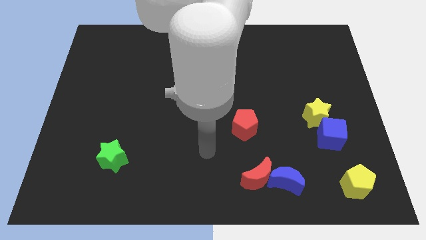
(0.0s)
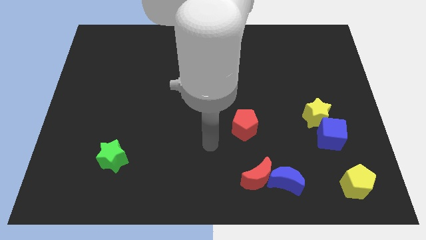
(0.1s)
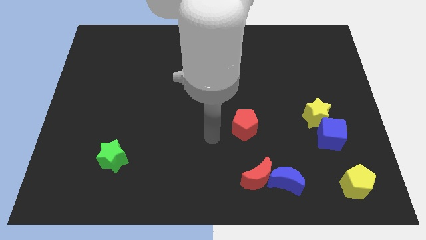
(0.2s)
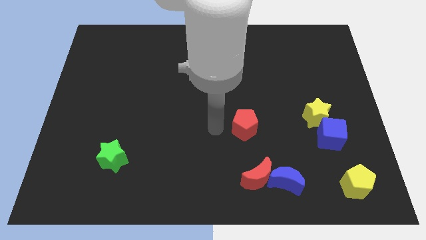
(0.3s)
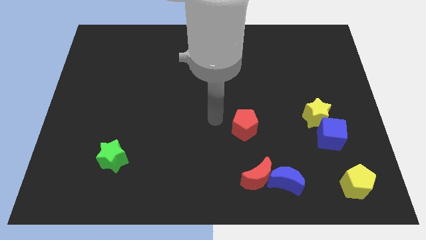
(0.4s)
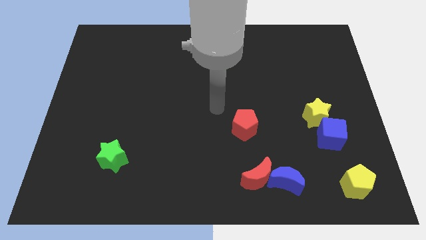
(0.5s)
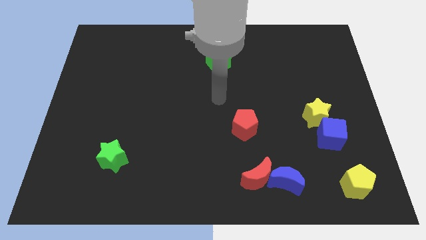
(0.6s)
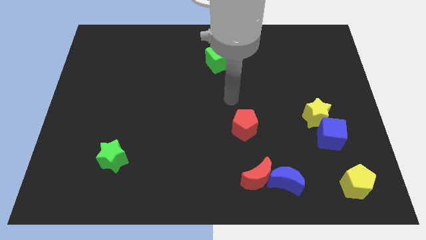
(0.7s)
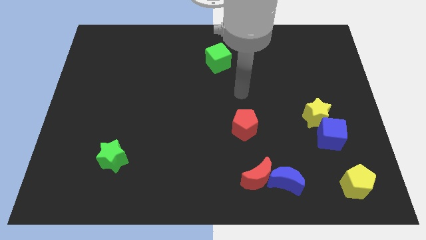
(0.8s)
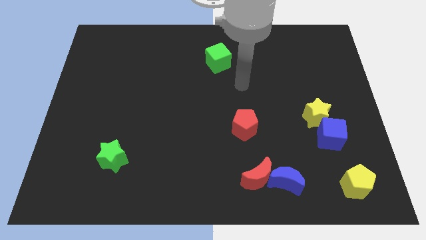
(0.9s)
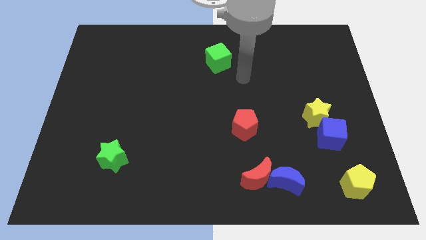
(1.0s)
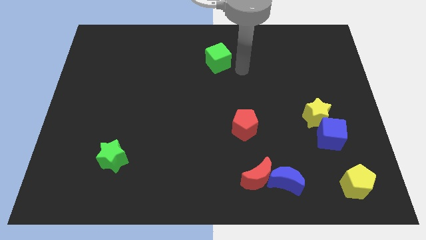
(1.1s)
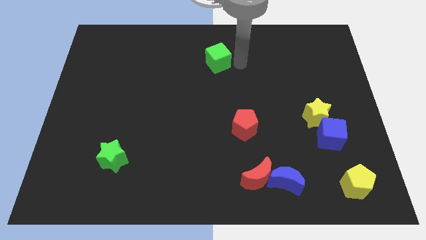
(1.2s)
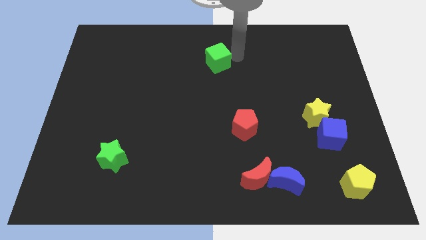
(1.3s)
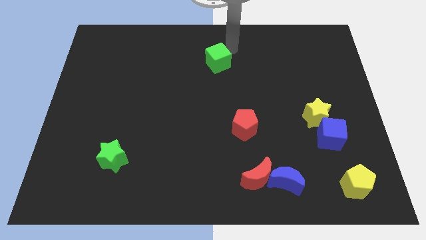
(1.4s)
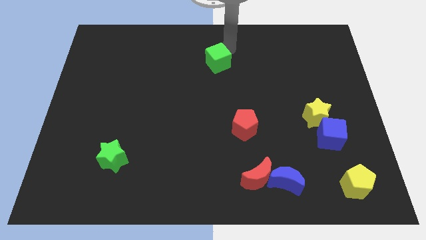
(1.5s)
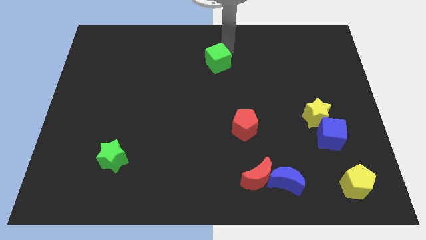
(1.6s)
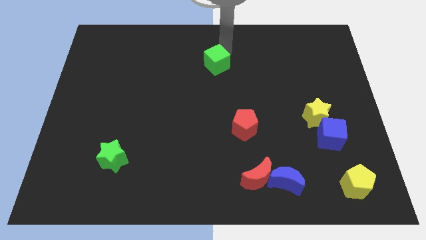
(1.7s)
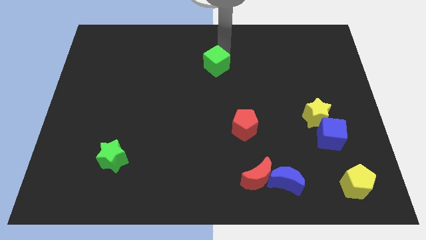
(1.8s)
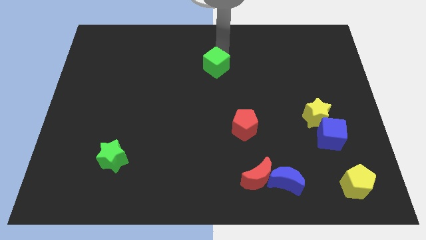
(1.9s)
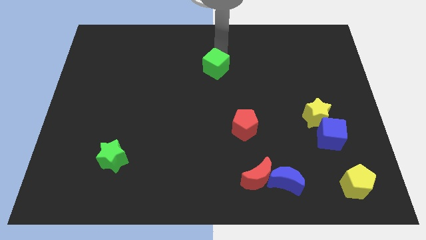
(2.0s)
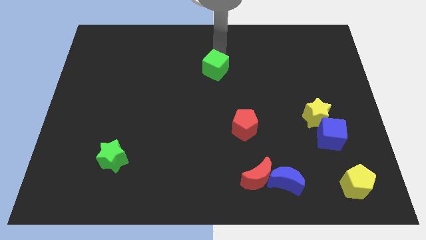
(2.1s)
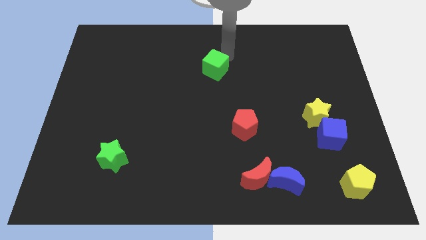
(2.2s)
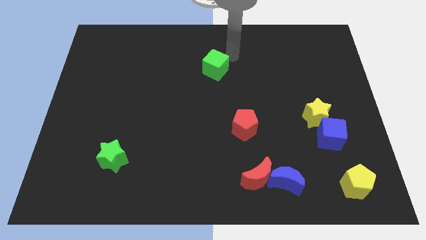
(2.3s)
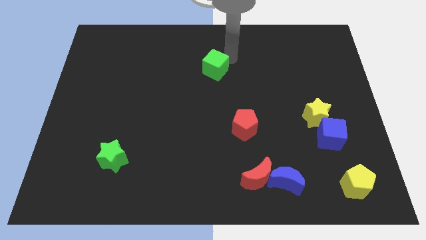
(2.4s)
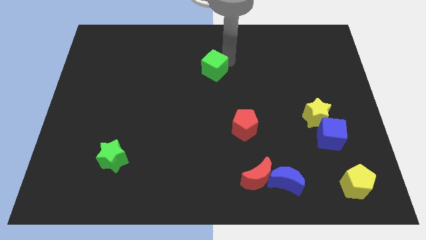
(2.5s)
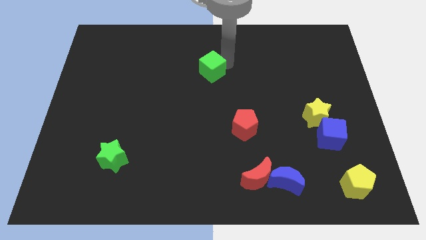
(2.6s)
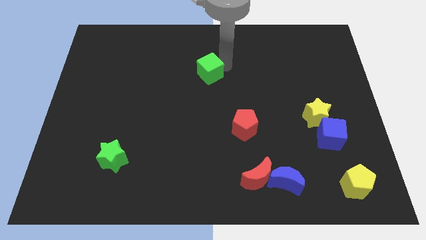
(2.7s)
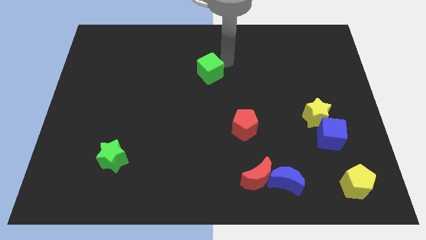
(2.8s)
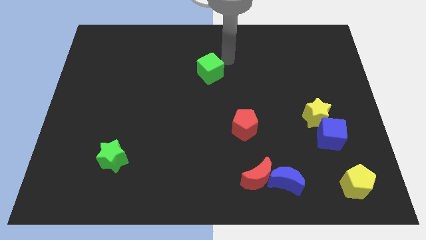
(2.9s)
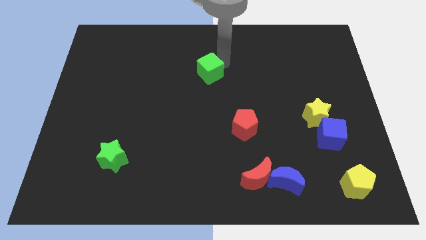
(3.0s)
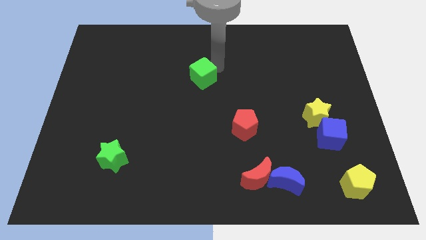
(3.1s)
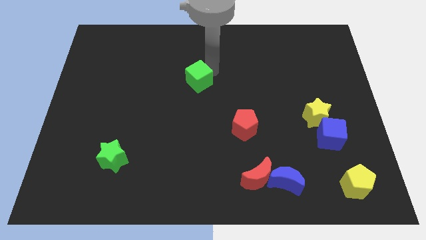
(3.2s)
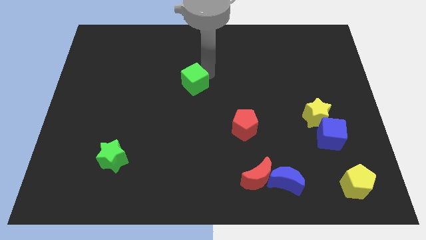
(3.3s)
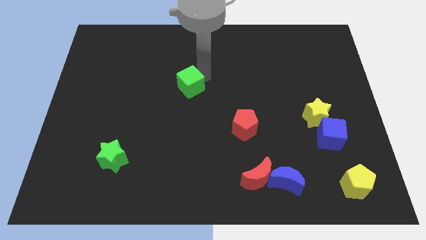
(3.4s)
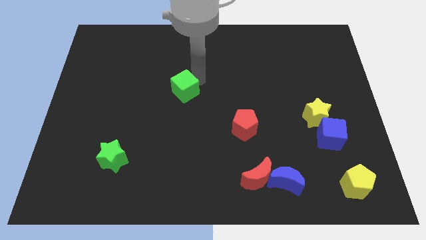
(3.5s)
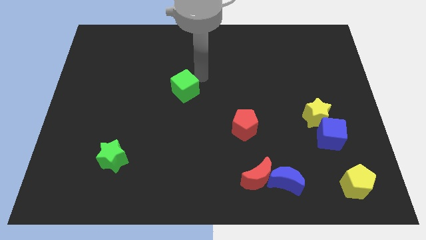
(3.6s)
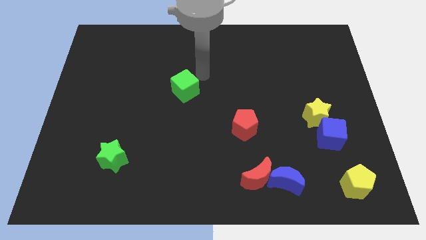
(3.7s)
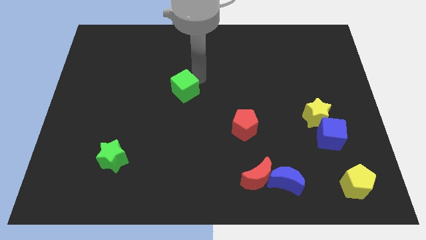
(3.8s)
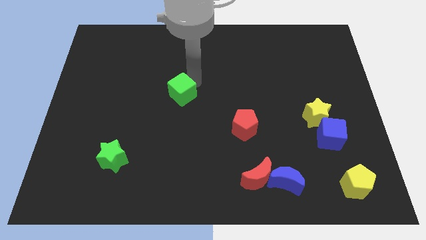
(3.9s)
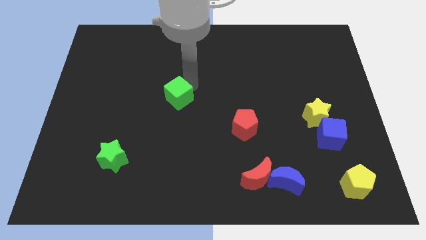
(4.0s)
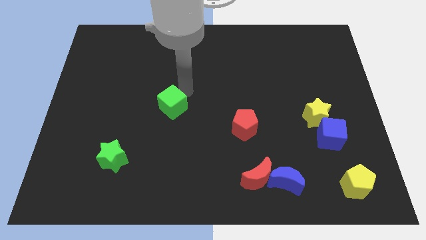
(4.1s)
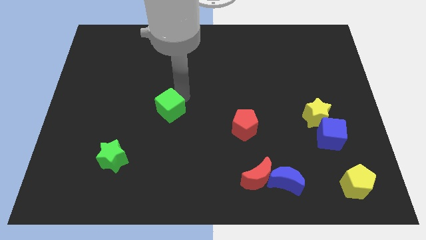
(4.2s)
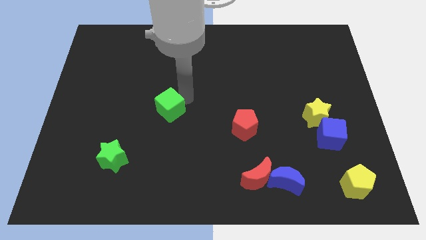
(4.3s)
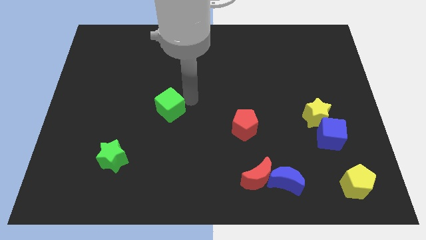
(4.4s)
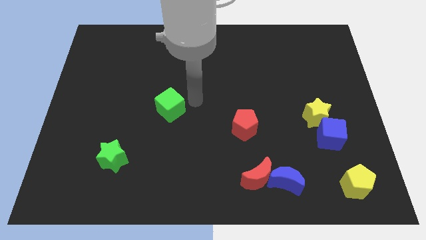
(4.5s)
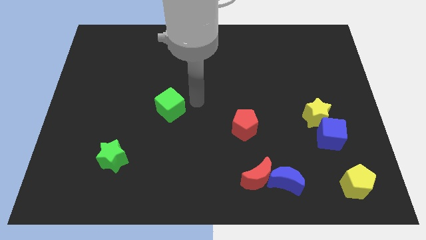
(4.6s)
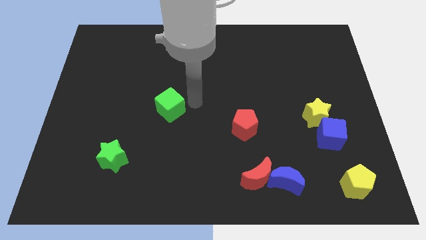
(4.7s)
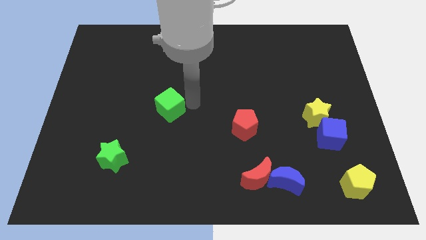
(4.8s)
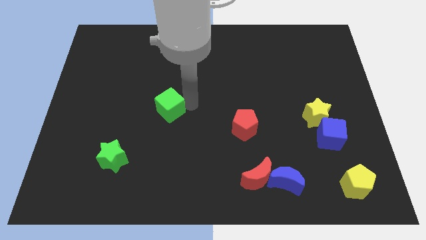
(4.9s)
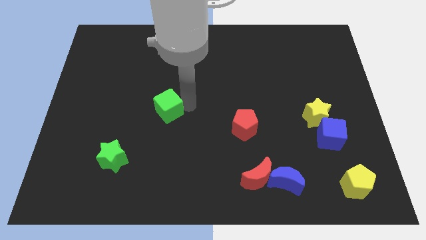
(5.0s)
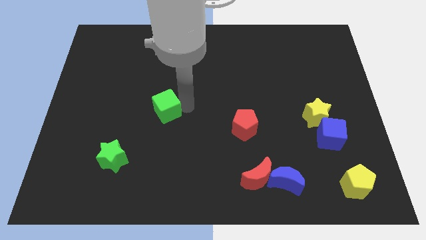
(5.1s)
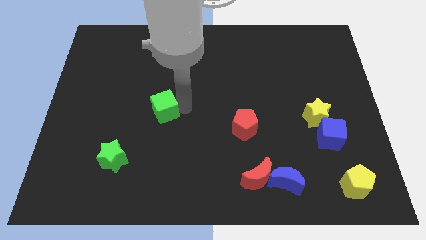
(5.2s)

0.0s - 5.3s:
move the green cube down and left

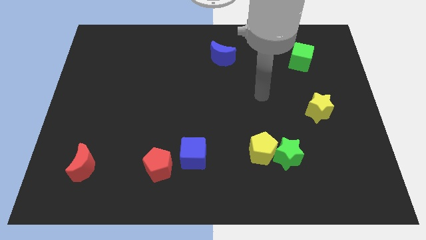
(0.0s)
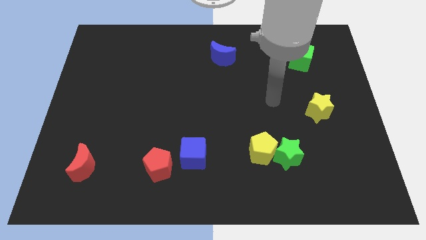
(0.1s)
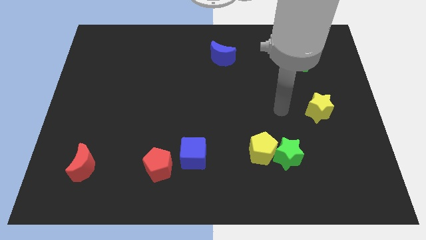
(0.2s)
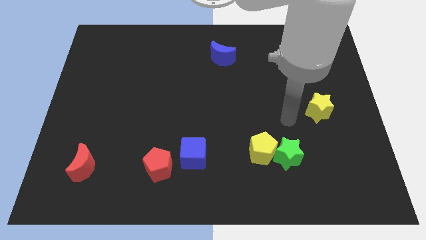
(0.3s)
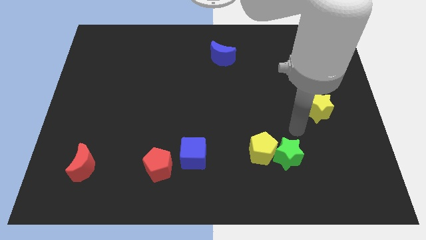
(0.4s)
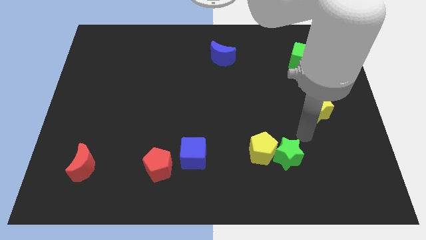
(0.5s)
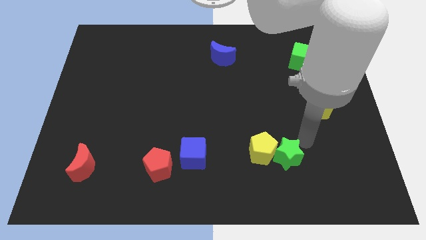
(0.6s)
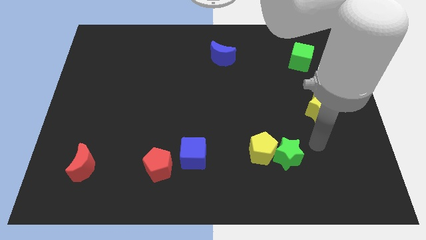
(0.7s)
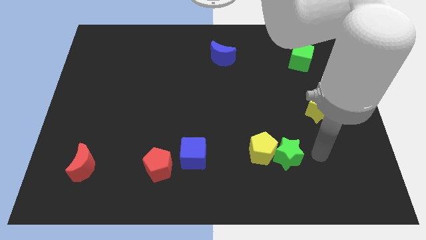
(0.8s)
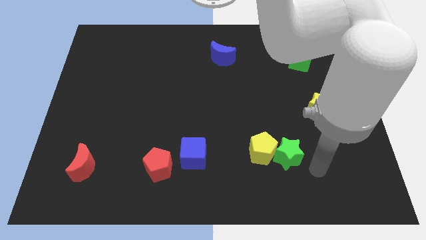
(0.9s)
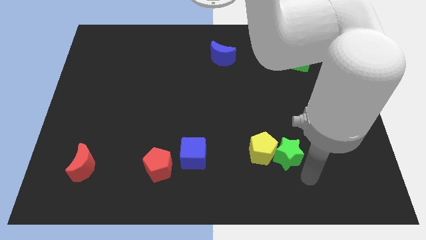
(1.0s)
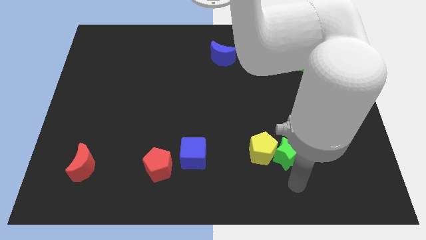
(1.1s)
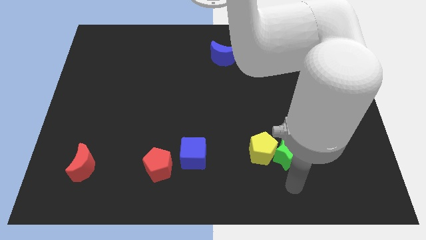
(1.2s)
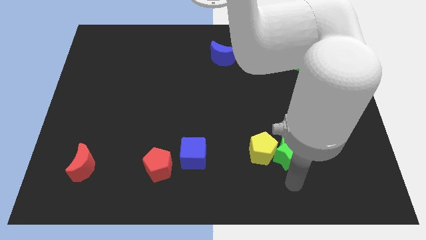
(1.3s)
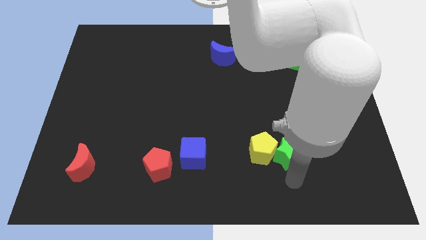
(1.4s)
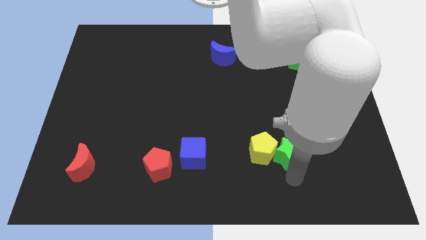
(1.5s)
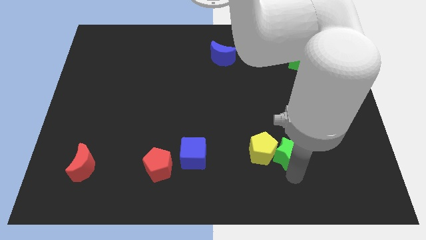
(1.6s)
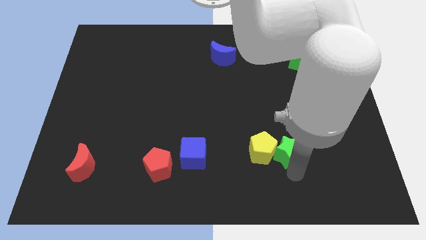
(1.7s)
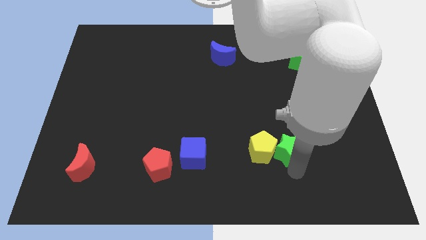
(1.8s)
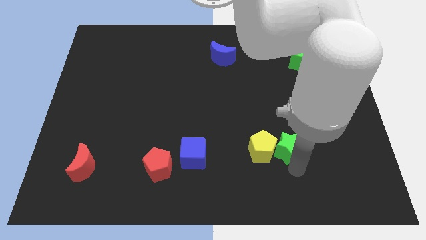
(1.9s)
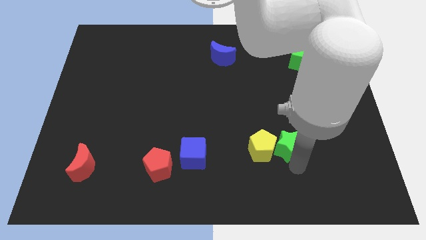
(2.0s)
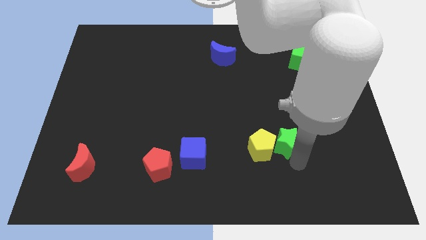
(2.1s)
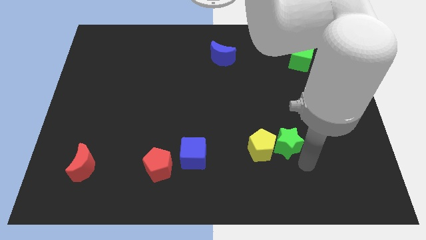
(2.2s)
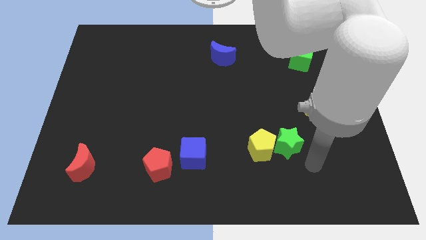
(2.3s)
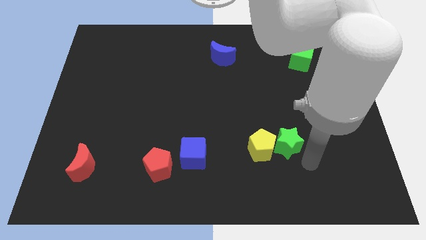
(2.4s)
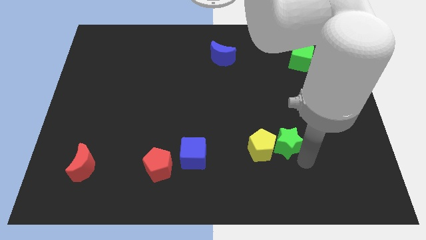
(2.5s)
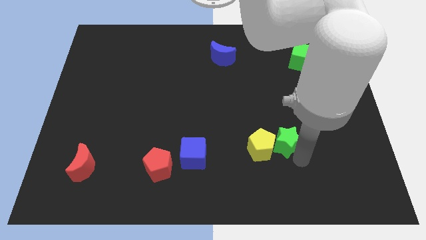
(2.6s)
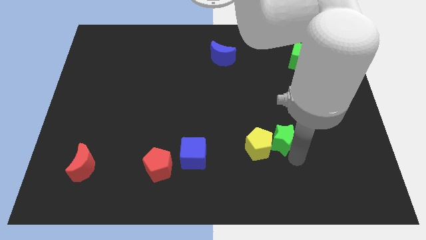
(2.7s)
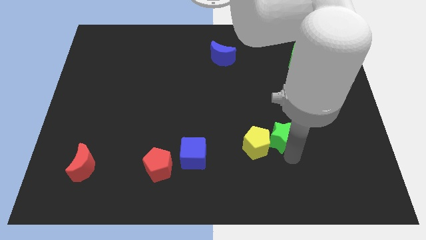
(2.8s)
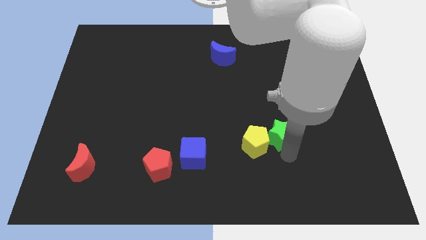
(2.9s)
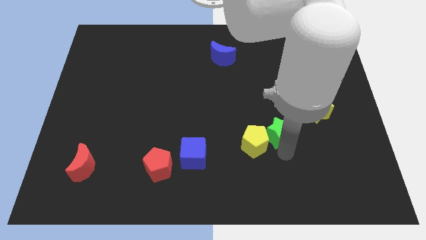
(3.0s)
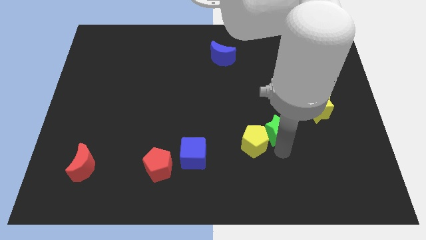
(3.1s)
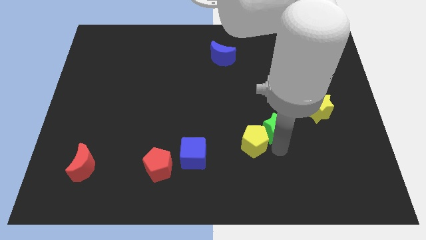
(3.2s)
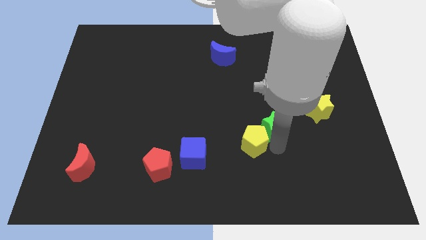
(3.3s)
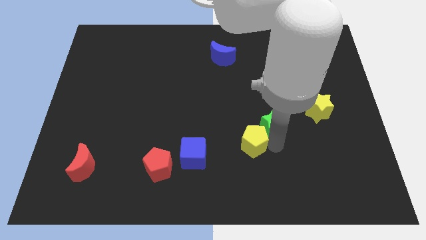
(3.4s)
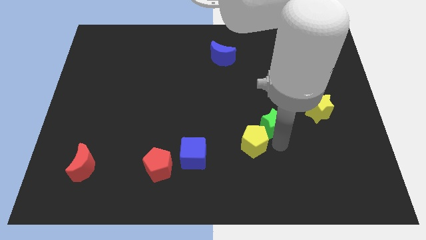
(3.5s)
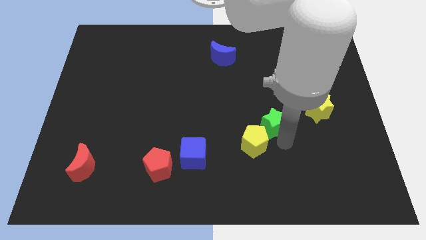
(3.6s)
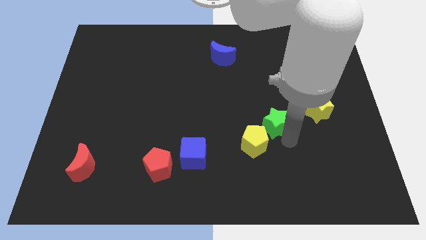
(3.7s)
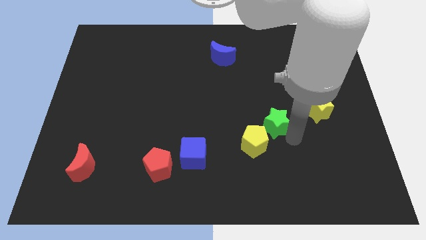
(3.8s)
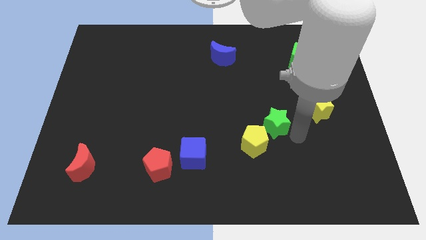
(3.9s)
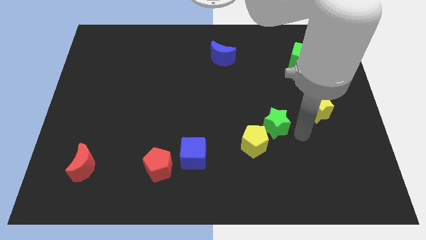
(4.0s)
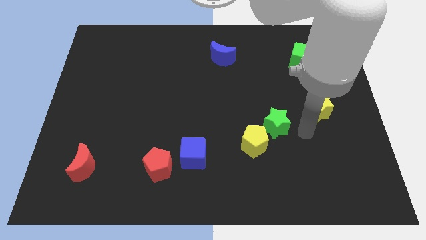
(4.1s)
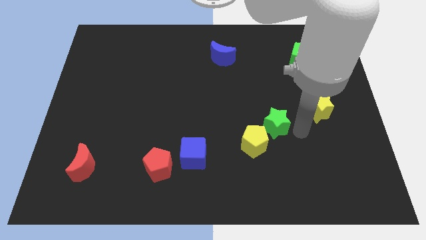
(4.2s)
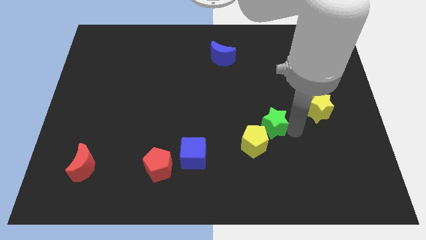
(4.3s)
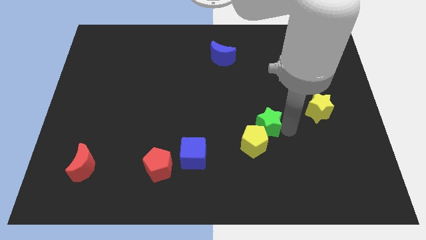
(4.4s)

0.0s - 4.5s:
slide the green star a little bit diagonally upwards and left
